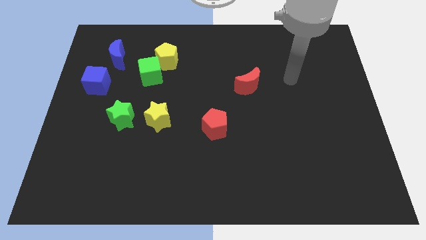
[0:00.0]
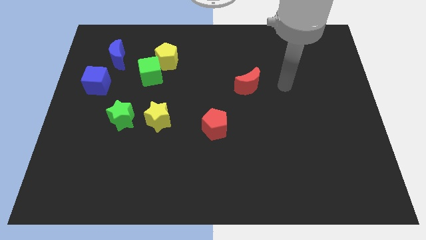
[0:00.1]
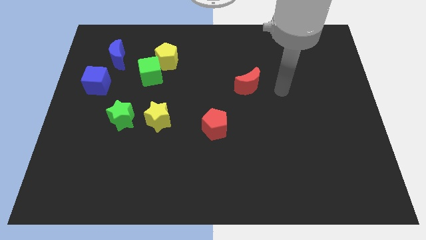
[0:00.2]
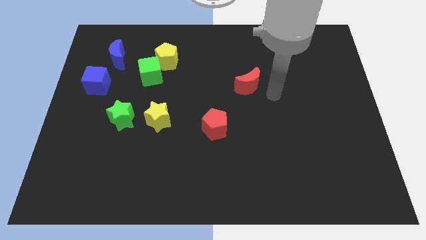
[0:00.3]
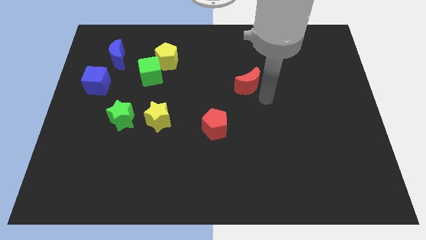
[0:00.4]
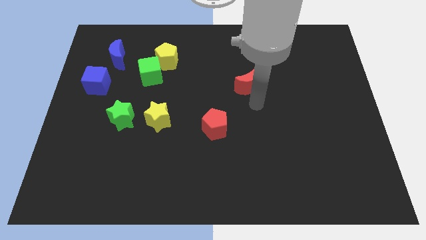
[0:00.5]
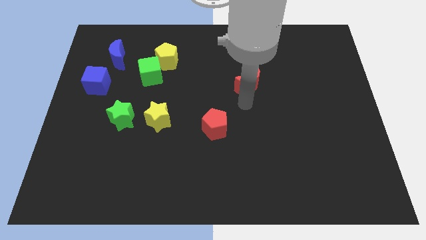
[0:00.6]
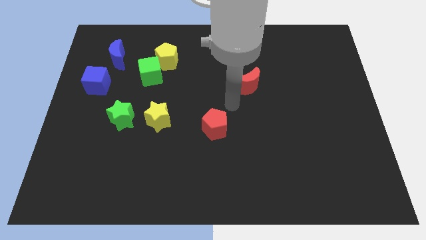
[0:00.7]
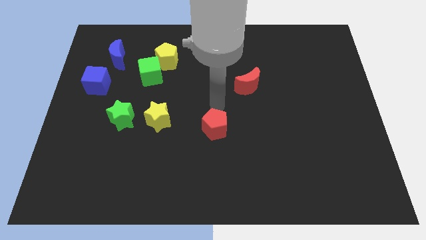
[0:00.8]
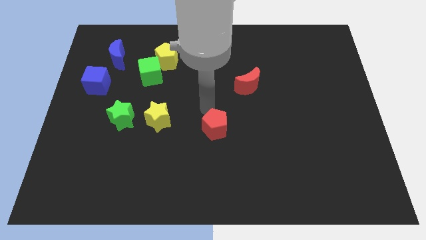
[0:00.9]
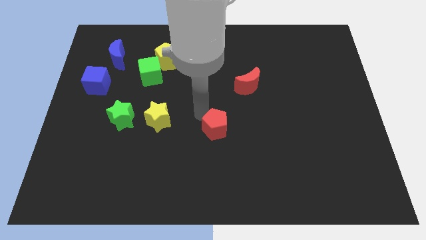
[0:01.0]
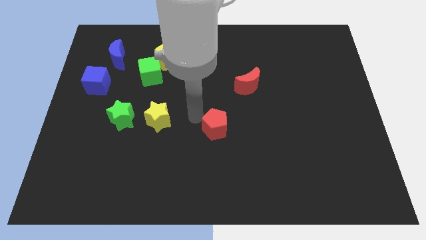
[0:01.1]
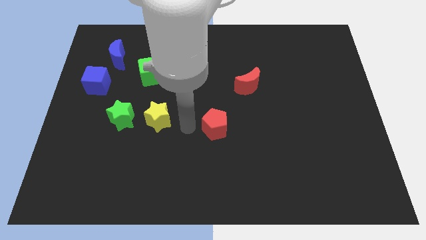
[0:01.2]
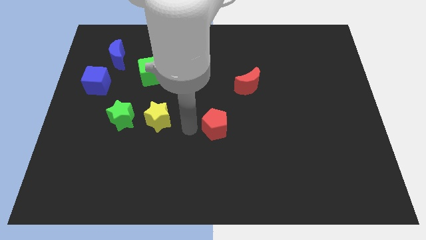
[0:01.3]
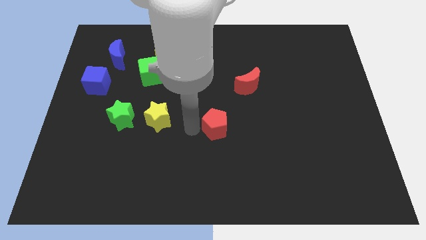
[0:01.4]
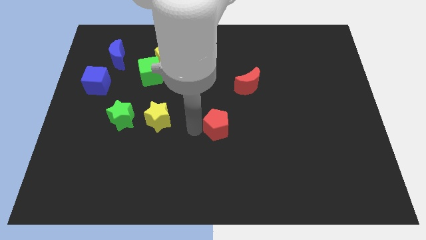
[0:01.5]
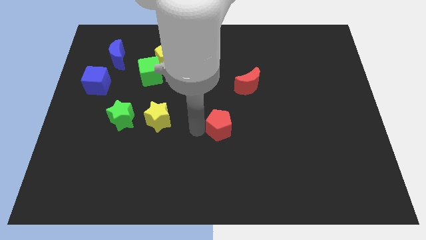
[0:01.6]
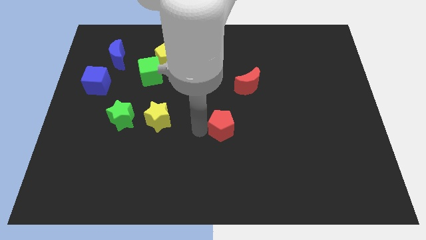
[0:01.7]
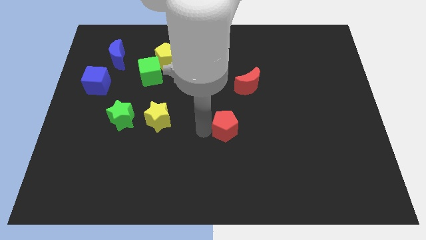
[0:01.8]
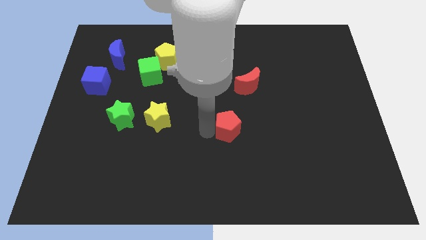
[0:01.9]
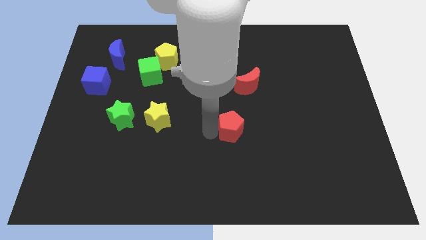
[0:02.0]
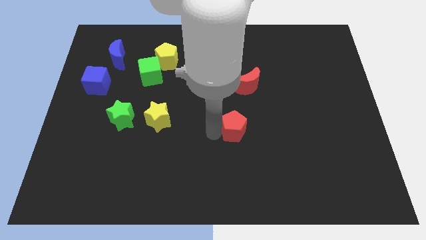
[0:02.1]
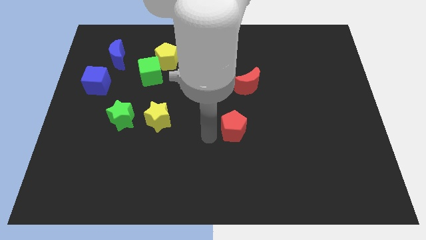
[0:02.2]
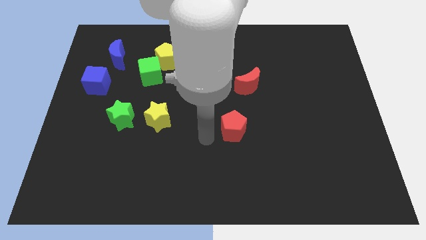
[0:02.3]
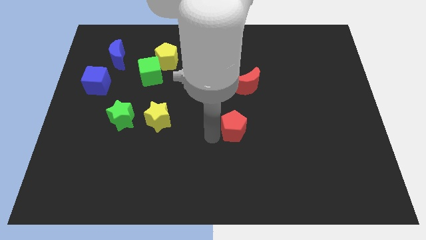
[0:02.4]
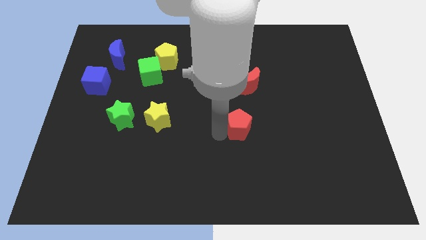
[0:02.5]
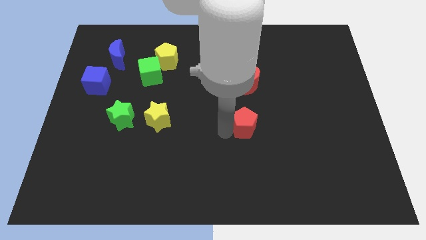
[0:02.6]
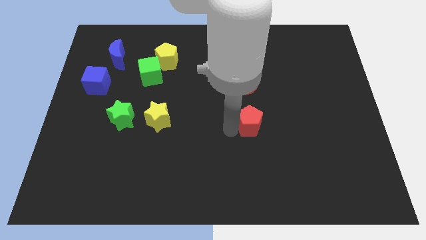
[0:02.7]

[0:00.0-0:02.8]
slide the red pentagon to the right a bit

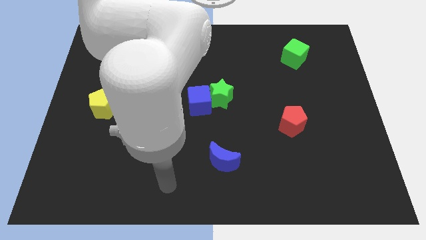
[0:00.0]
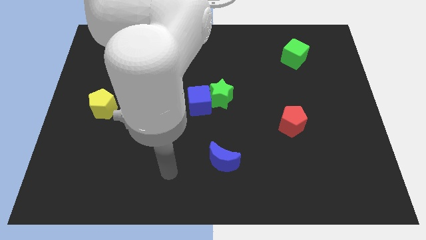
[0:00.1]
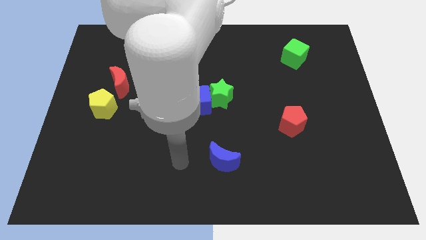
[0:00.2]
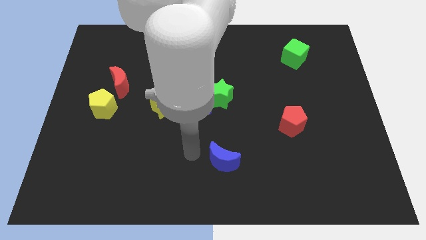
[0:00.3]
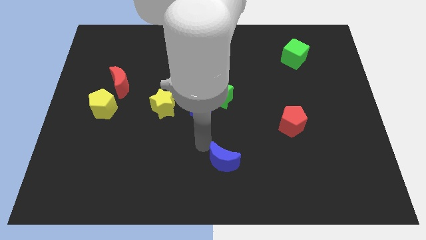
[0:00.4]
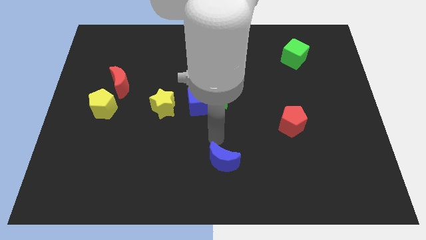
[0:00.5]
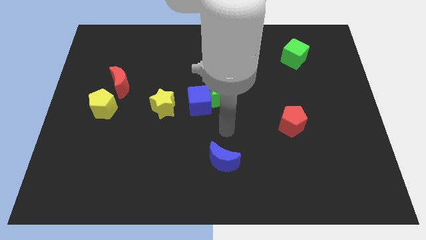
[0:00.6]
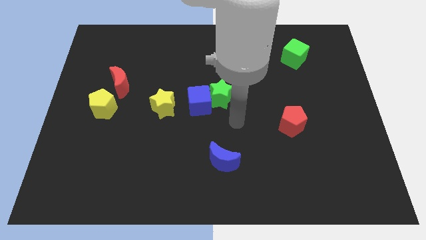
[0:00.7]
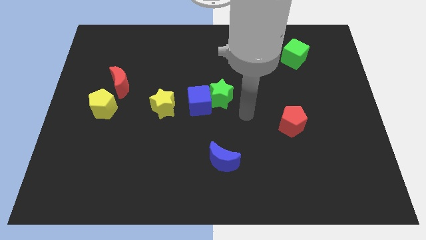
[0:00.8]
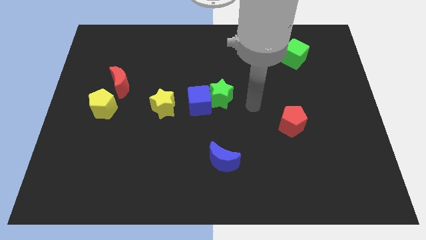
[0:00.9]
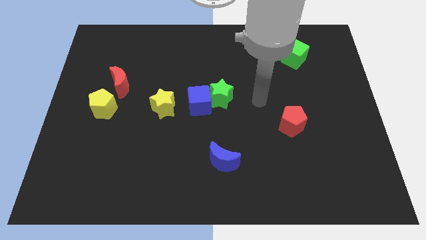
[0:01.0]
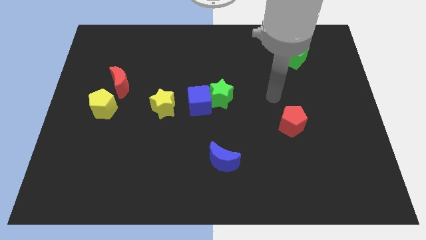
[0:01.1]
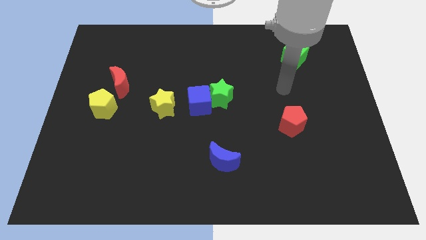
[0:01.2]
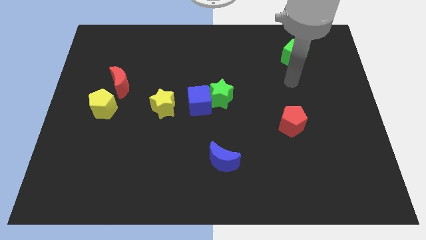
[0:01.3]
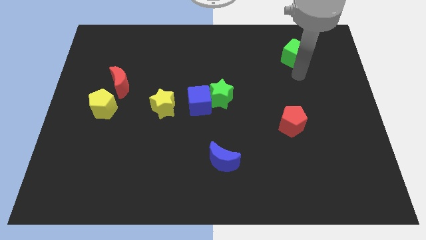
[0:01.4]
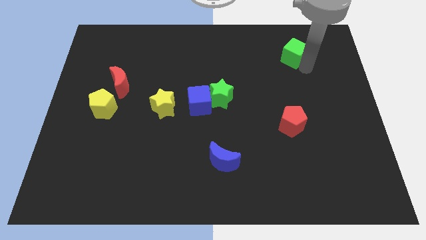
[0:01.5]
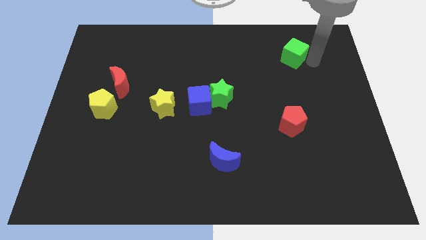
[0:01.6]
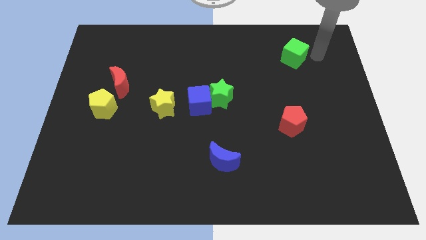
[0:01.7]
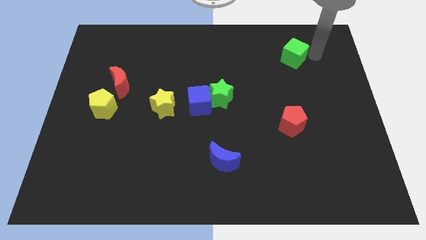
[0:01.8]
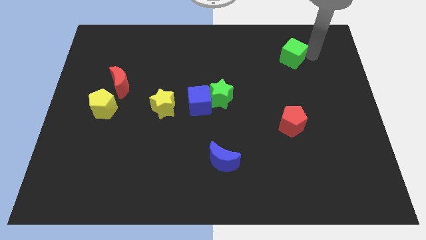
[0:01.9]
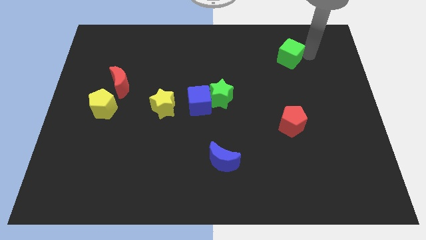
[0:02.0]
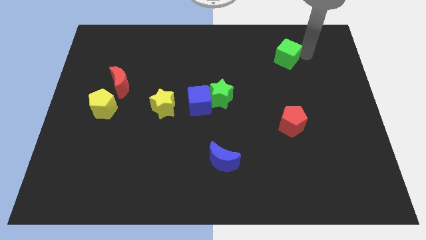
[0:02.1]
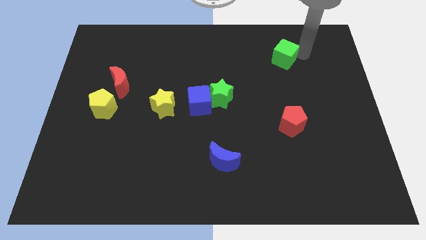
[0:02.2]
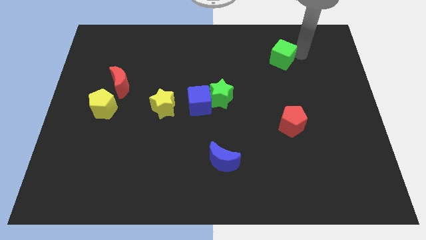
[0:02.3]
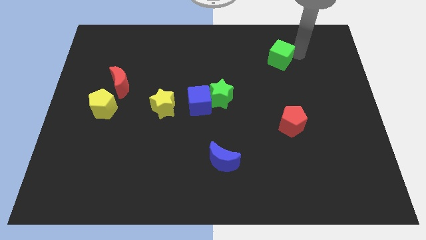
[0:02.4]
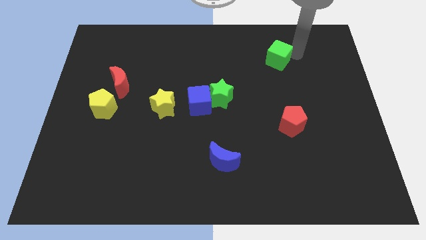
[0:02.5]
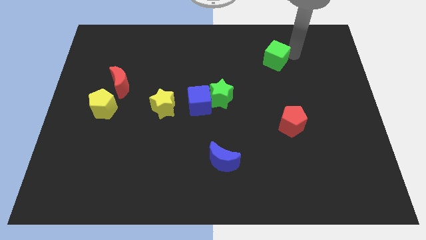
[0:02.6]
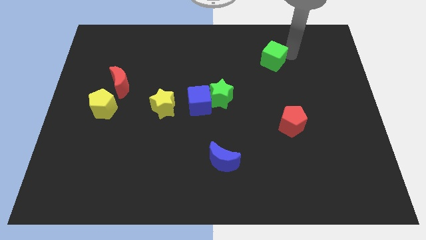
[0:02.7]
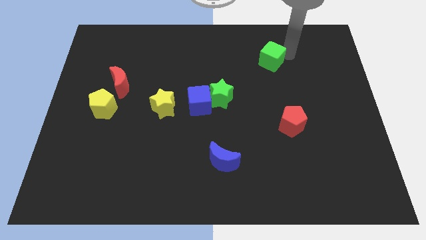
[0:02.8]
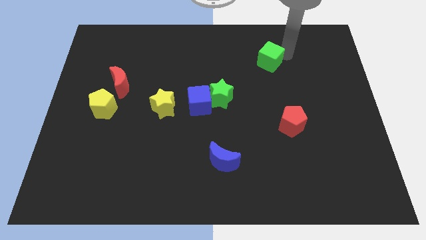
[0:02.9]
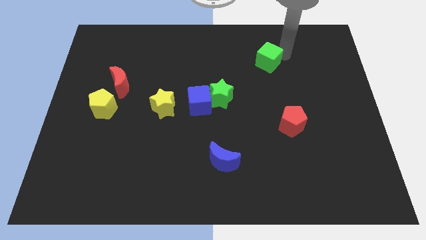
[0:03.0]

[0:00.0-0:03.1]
move the green cube a little bit to the left

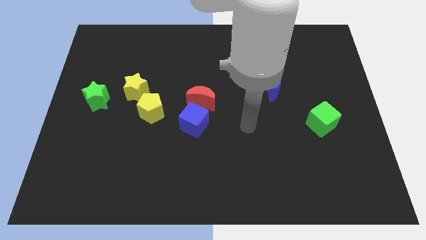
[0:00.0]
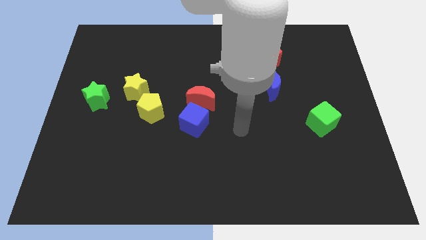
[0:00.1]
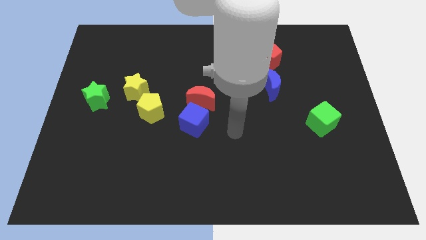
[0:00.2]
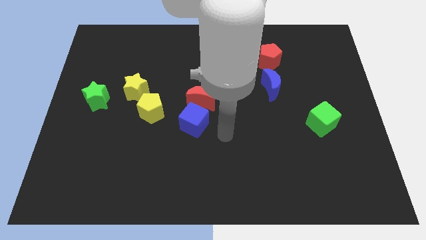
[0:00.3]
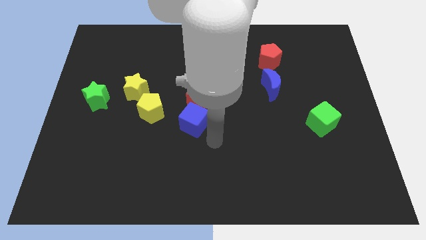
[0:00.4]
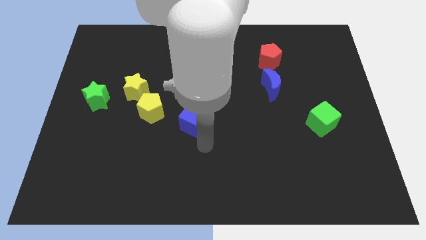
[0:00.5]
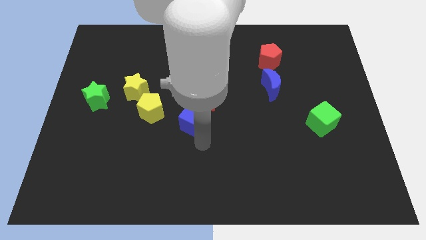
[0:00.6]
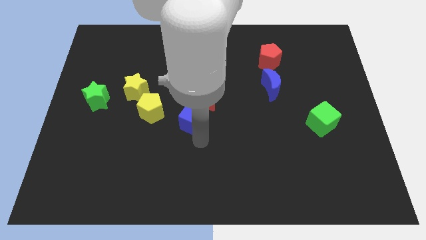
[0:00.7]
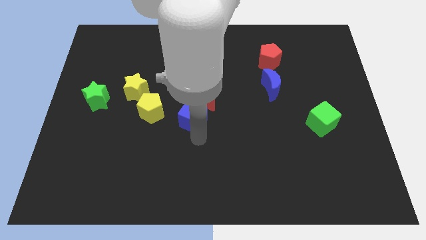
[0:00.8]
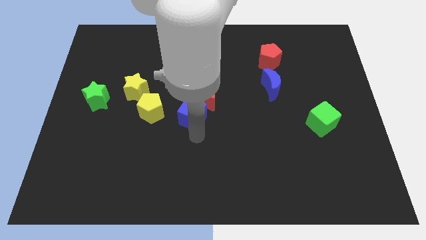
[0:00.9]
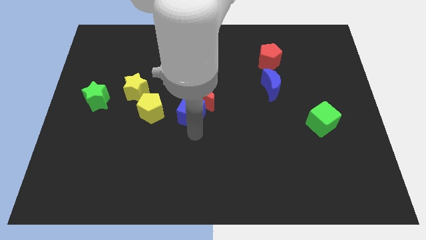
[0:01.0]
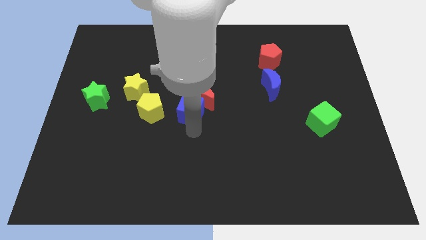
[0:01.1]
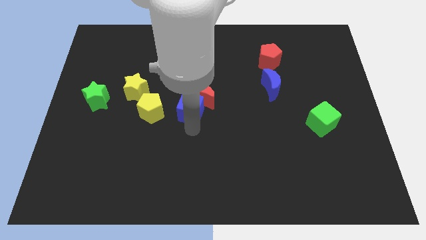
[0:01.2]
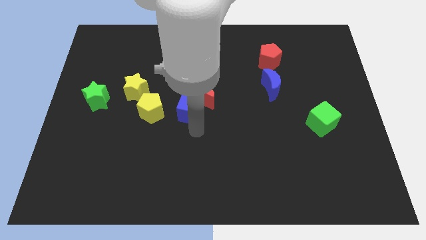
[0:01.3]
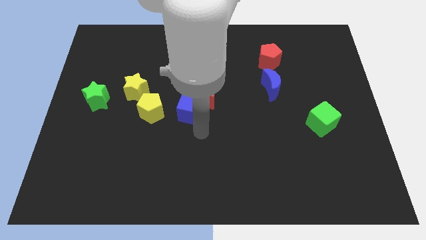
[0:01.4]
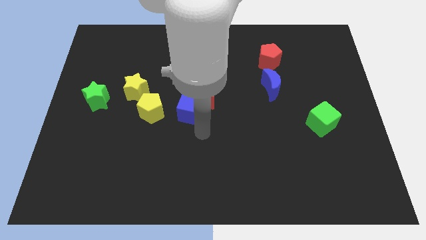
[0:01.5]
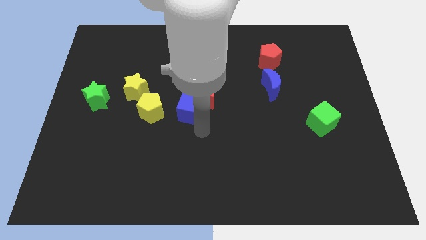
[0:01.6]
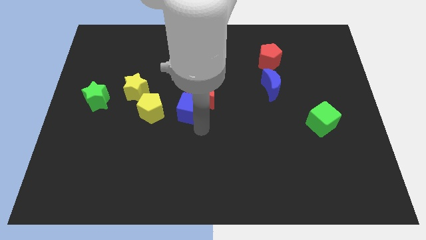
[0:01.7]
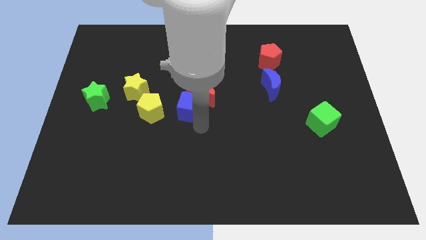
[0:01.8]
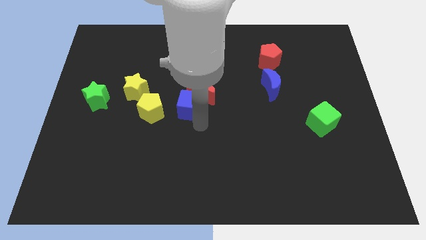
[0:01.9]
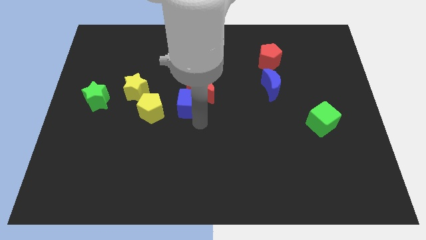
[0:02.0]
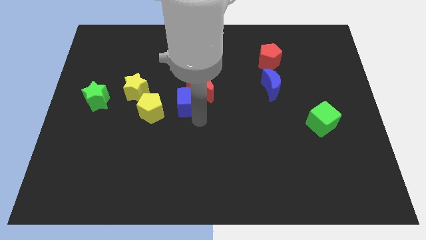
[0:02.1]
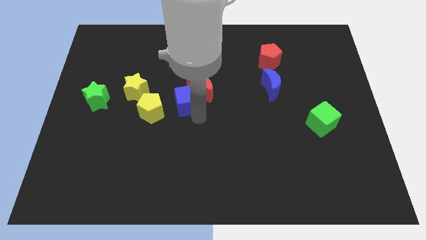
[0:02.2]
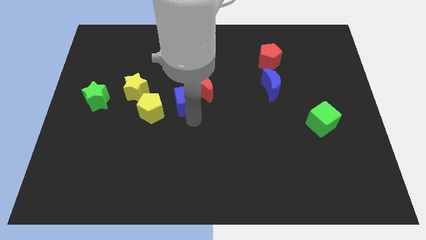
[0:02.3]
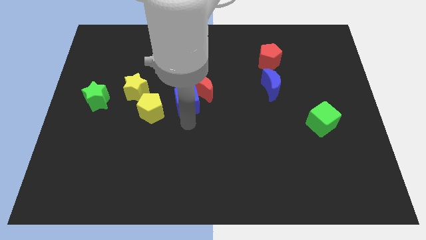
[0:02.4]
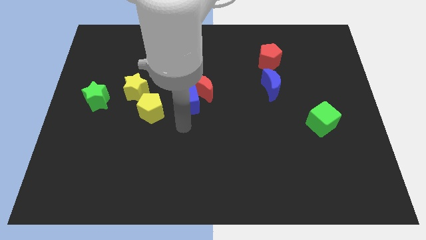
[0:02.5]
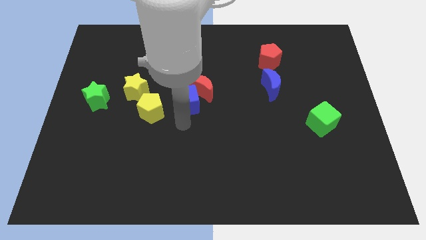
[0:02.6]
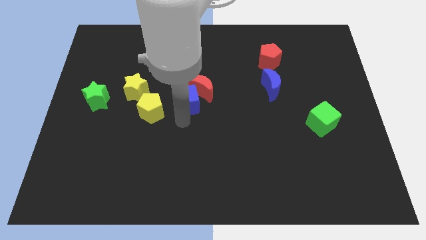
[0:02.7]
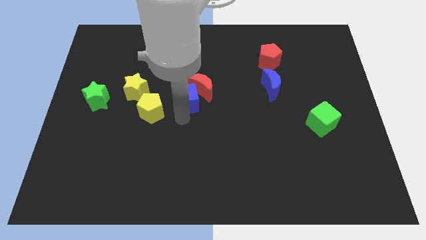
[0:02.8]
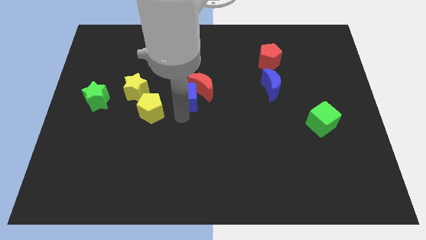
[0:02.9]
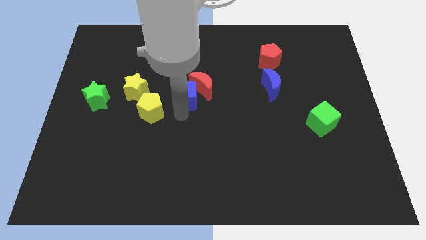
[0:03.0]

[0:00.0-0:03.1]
push the blue cube up a little bit
